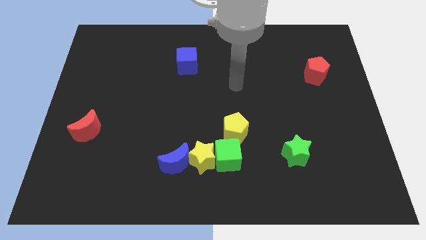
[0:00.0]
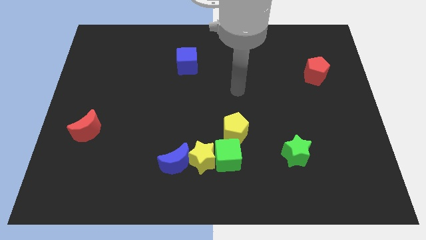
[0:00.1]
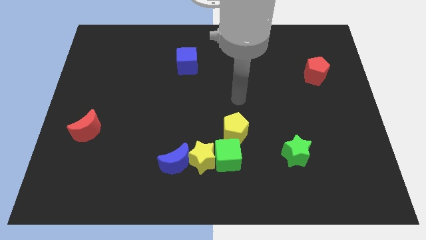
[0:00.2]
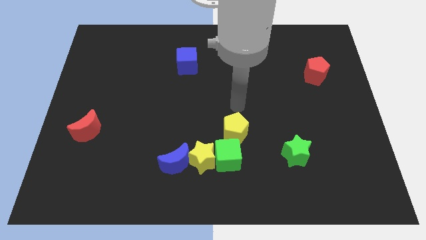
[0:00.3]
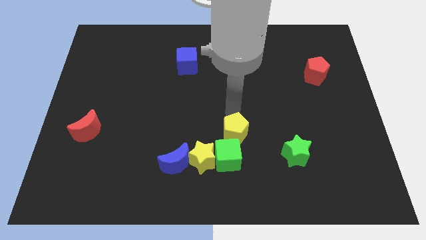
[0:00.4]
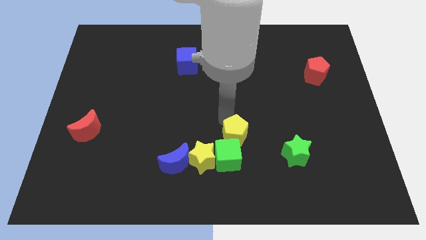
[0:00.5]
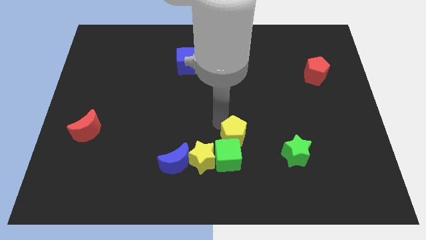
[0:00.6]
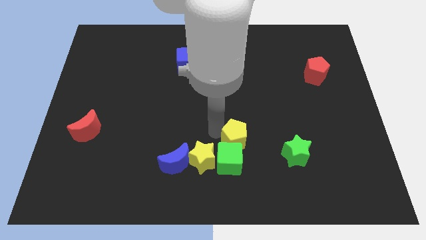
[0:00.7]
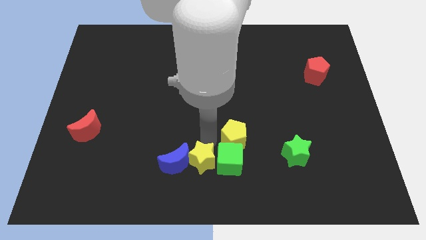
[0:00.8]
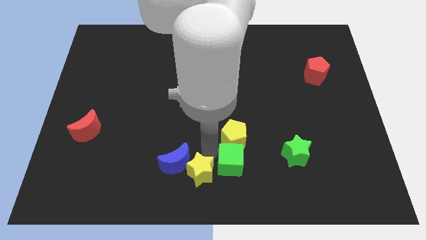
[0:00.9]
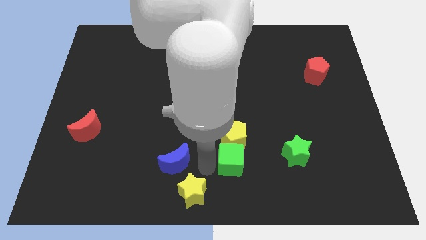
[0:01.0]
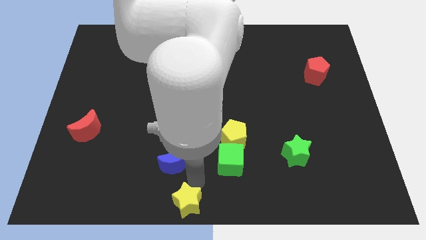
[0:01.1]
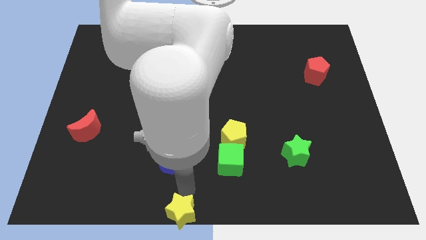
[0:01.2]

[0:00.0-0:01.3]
separate the blue moon from the yellow star

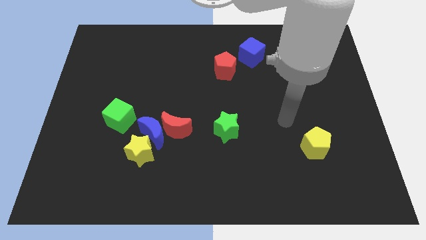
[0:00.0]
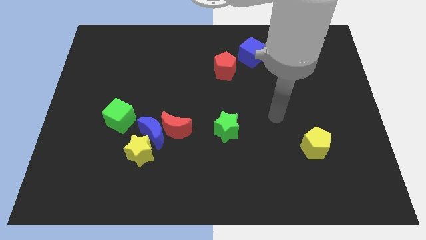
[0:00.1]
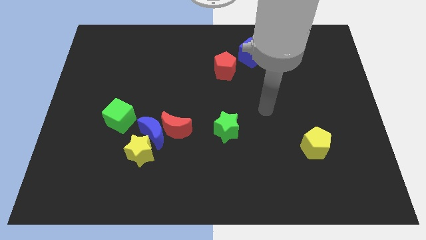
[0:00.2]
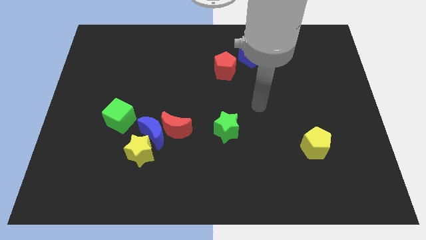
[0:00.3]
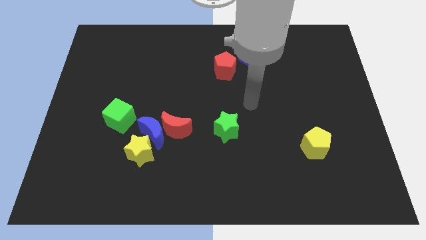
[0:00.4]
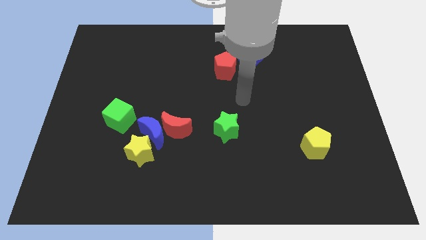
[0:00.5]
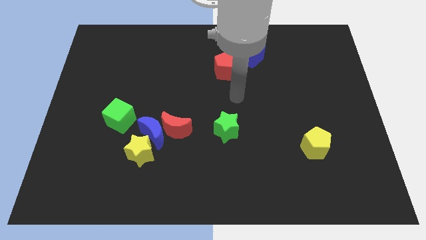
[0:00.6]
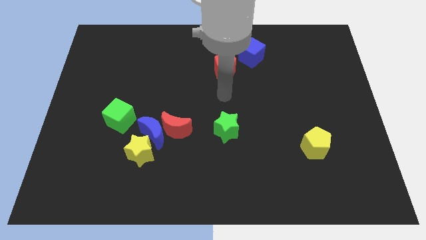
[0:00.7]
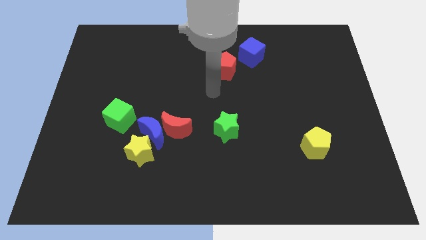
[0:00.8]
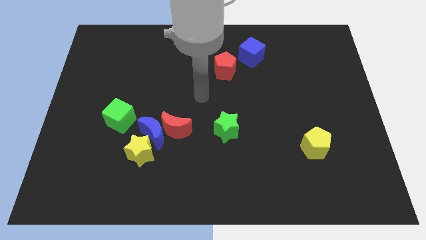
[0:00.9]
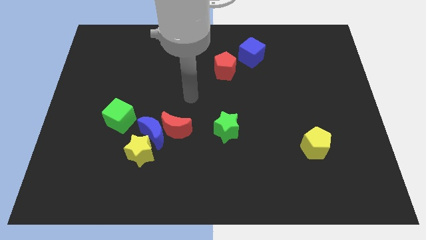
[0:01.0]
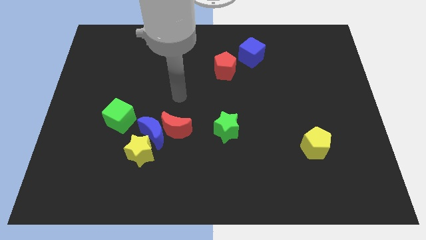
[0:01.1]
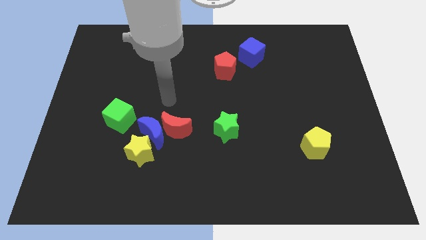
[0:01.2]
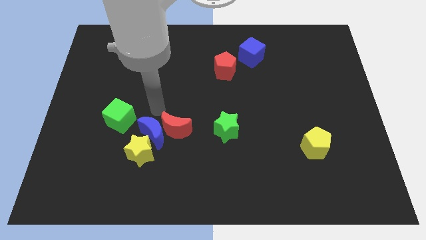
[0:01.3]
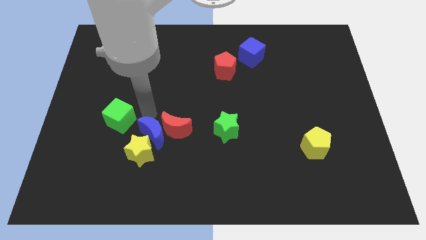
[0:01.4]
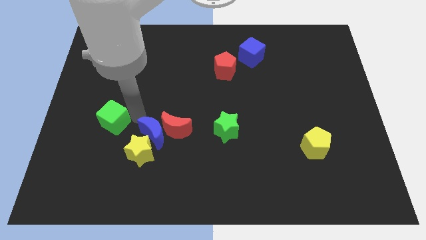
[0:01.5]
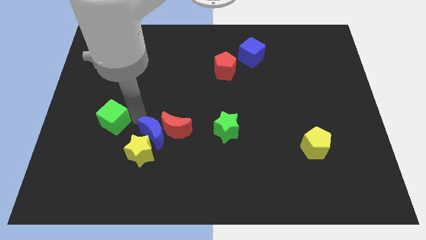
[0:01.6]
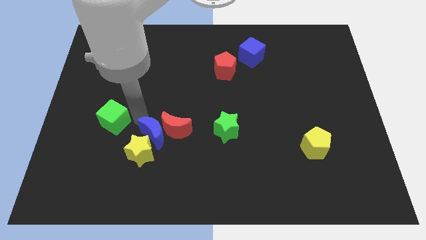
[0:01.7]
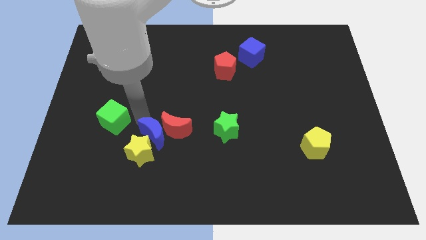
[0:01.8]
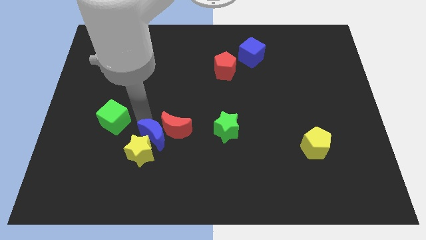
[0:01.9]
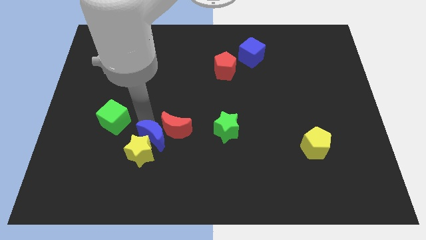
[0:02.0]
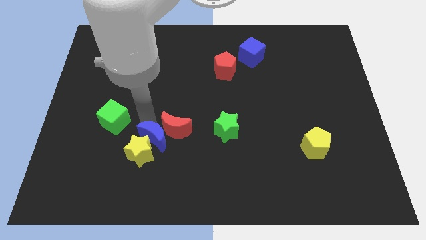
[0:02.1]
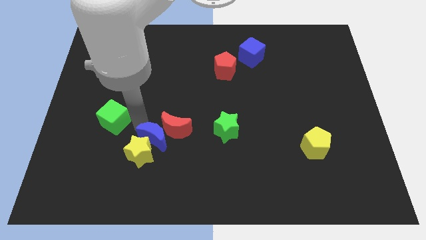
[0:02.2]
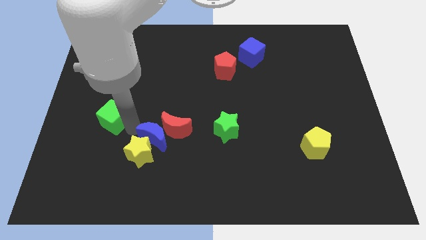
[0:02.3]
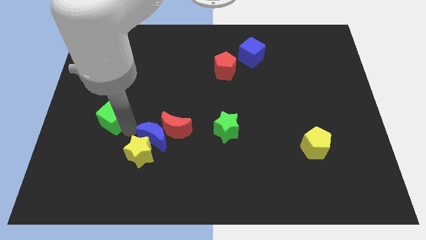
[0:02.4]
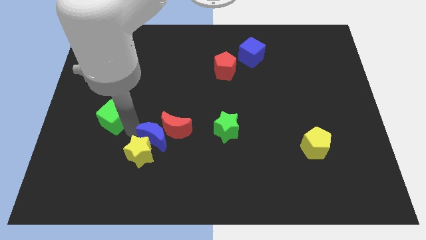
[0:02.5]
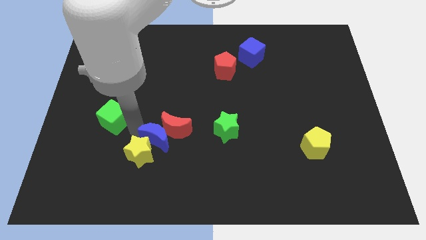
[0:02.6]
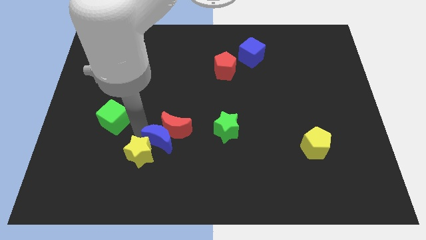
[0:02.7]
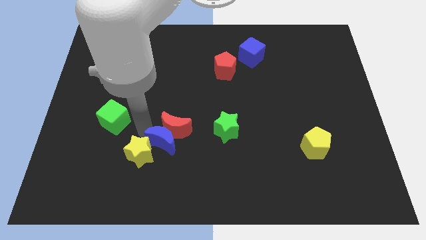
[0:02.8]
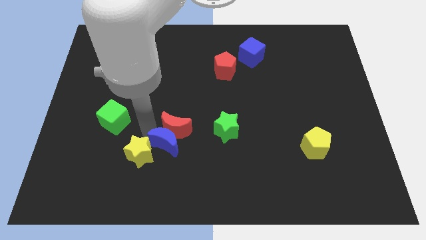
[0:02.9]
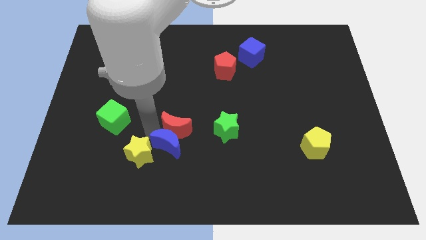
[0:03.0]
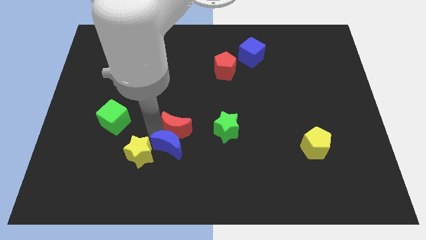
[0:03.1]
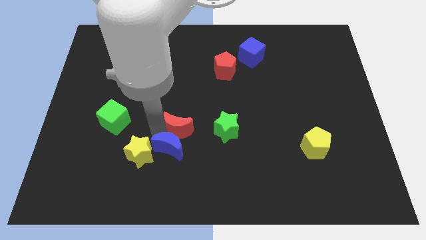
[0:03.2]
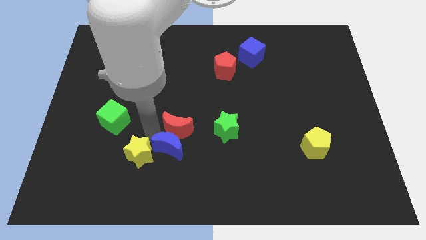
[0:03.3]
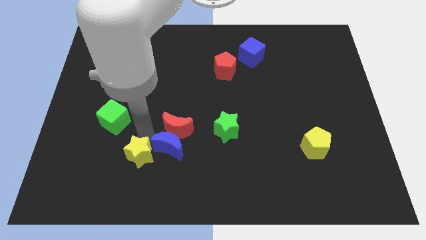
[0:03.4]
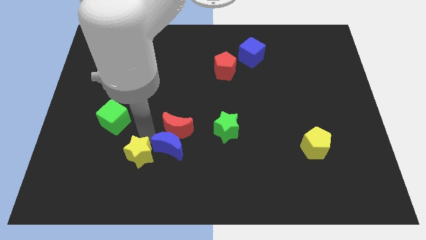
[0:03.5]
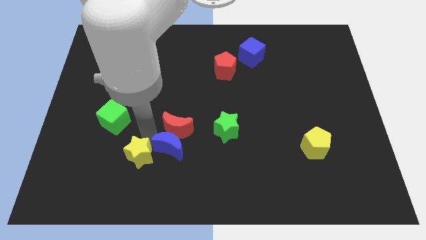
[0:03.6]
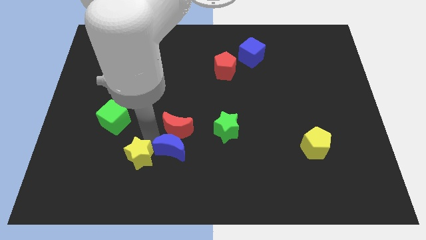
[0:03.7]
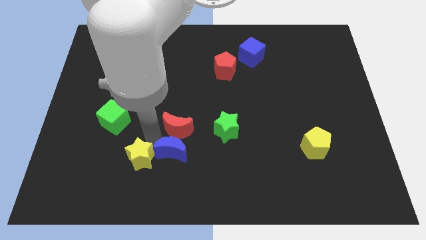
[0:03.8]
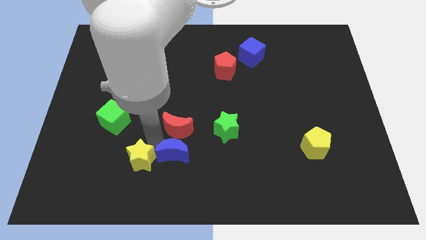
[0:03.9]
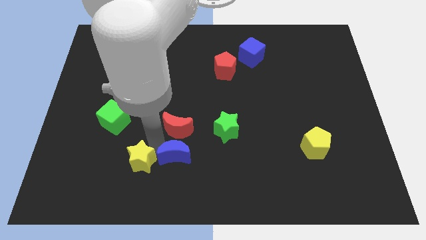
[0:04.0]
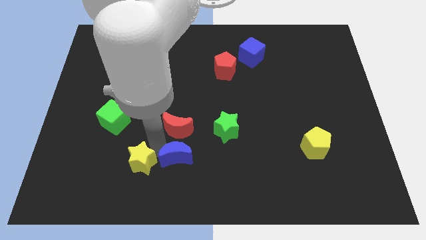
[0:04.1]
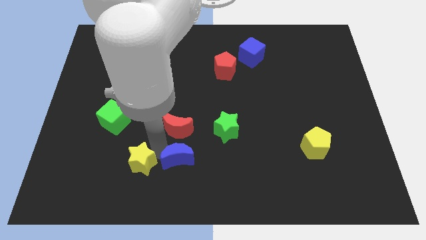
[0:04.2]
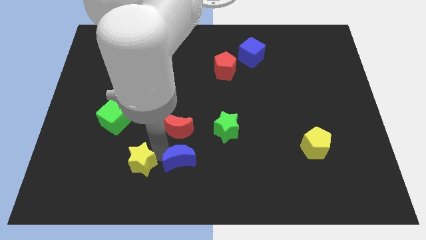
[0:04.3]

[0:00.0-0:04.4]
pull the blue moon apart from the group of blocks

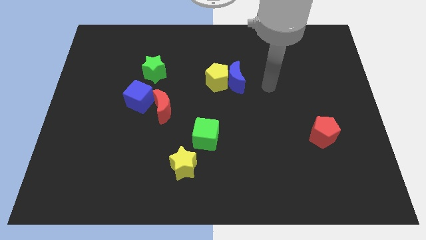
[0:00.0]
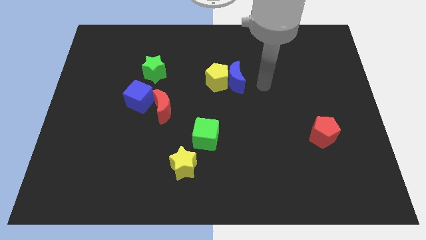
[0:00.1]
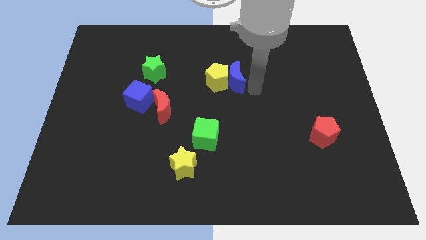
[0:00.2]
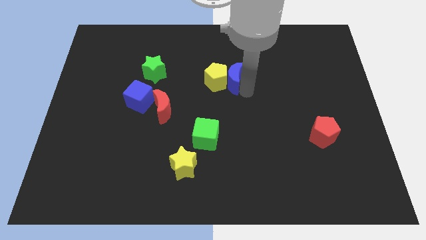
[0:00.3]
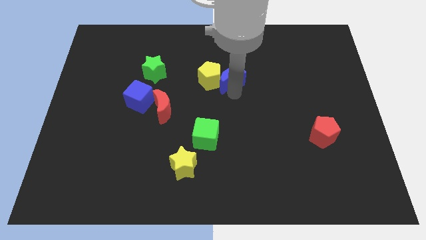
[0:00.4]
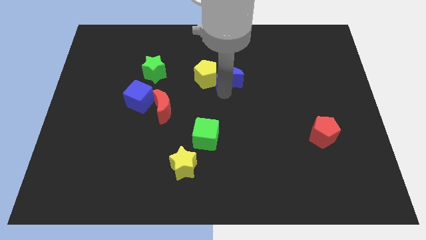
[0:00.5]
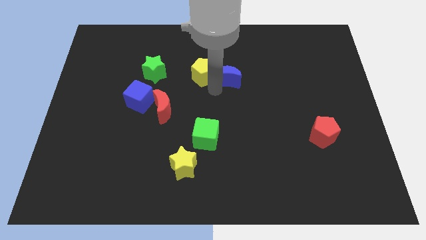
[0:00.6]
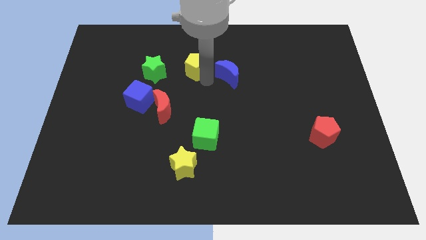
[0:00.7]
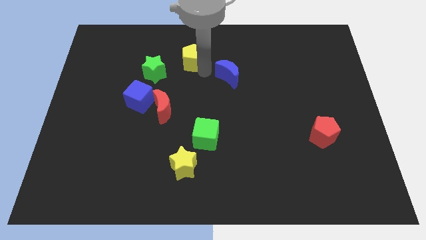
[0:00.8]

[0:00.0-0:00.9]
move the blue moon away from the yellow pentagon

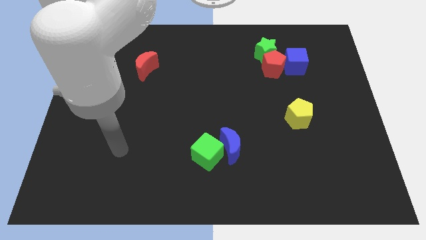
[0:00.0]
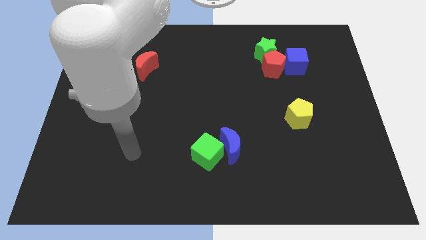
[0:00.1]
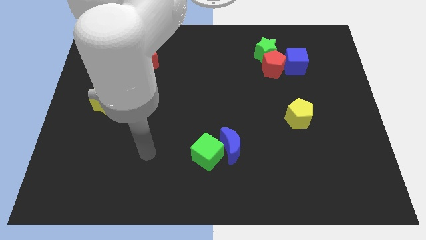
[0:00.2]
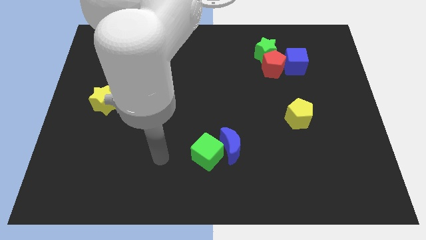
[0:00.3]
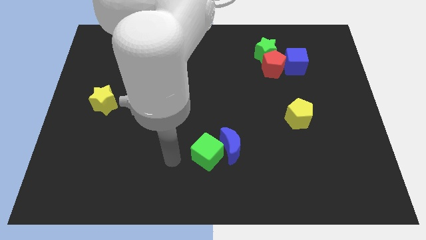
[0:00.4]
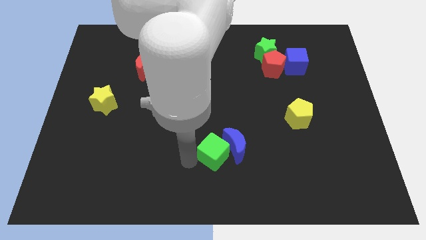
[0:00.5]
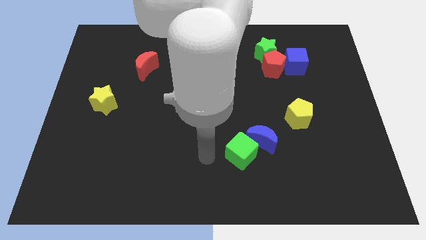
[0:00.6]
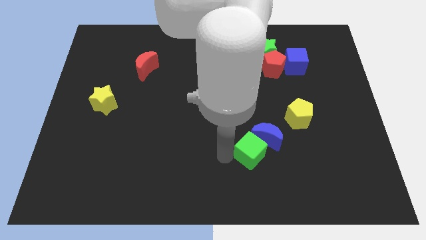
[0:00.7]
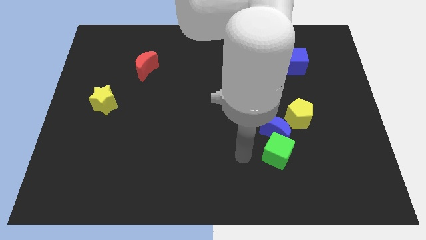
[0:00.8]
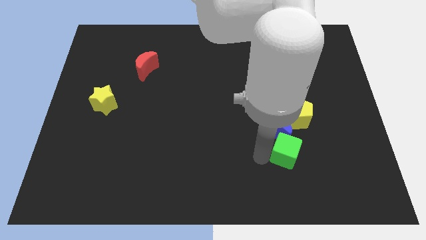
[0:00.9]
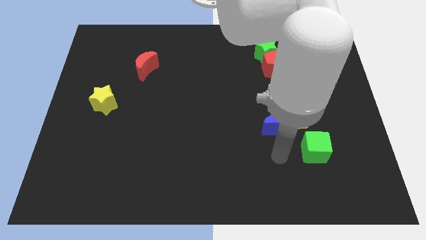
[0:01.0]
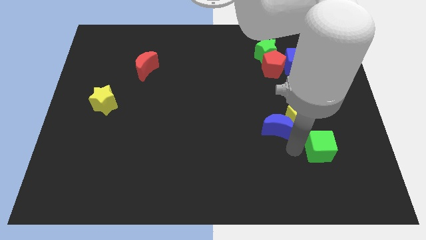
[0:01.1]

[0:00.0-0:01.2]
pull the blue moon apart from the green cube

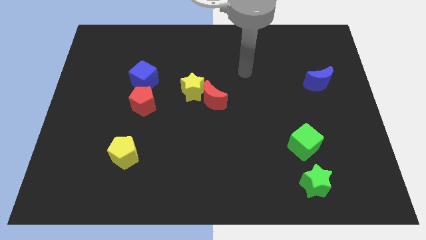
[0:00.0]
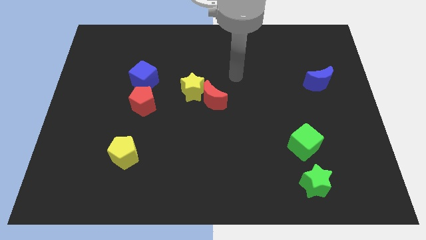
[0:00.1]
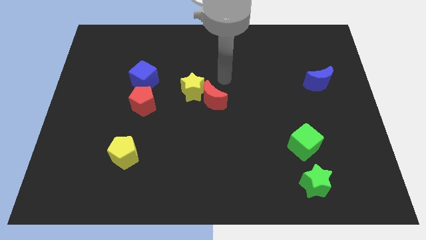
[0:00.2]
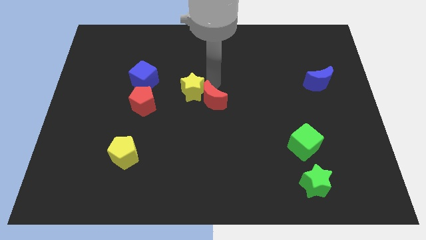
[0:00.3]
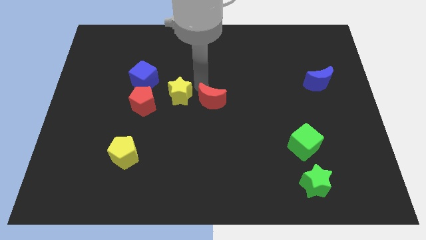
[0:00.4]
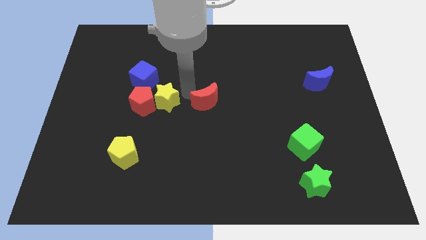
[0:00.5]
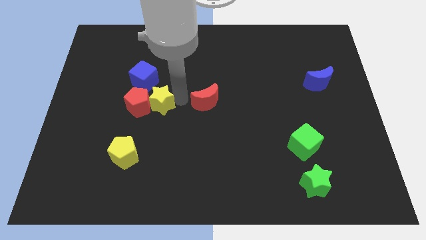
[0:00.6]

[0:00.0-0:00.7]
move the red moon away from the yellow star

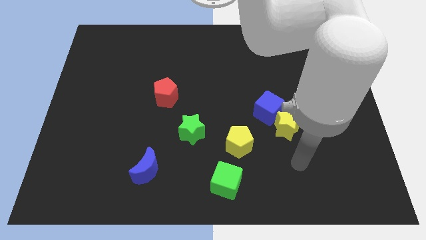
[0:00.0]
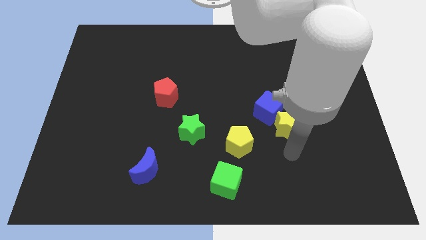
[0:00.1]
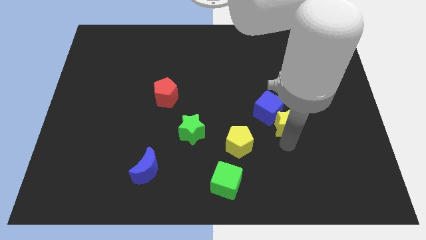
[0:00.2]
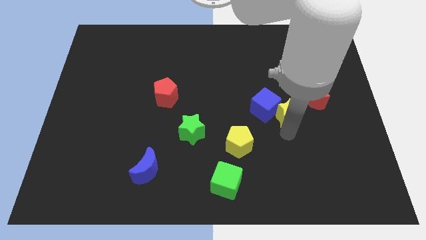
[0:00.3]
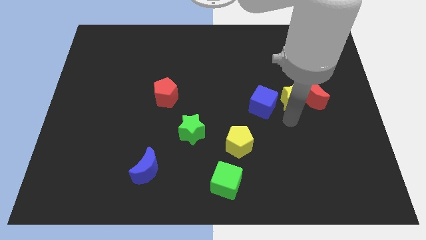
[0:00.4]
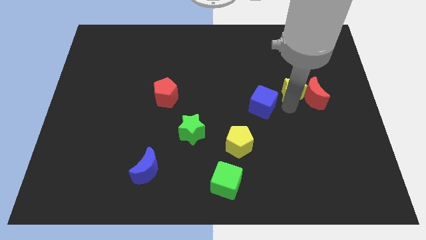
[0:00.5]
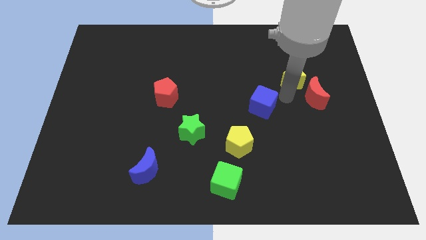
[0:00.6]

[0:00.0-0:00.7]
move the blue cube away from the yellow star
